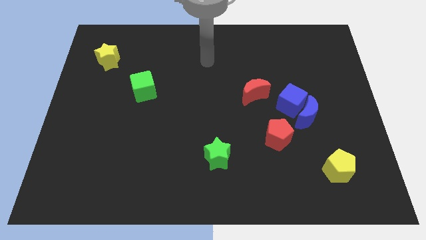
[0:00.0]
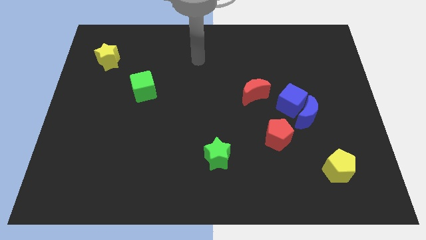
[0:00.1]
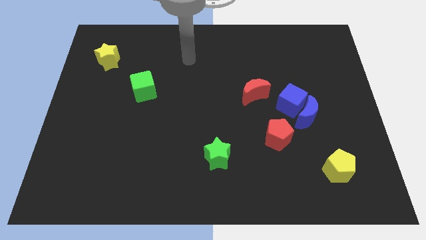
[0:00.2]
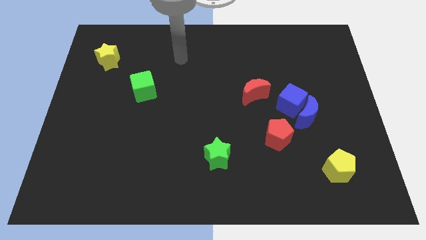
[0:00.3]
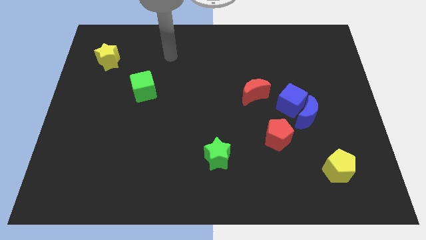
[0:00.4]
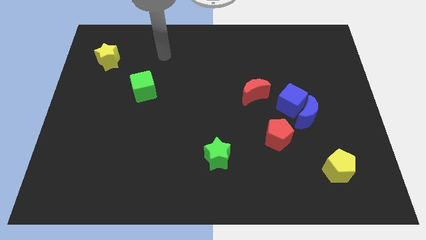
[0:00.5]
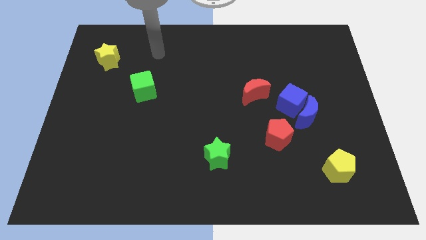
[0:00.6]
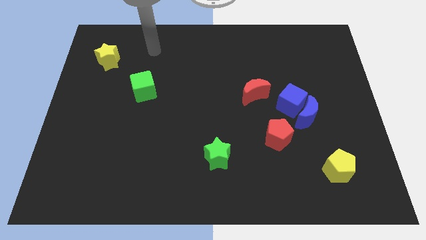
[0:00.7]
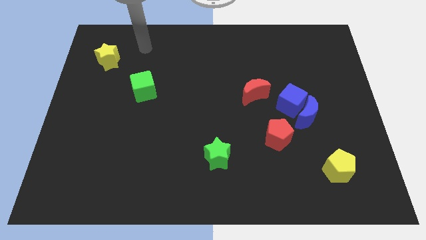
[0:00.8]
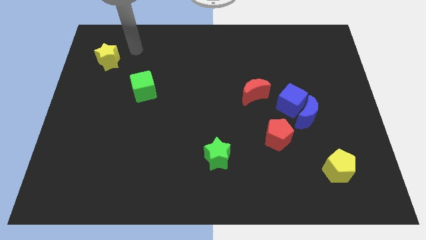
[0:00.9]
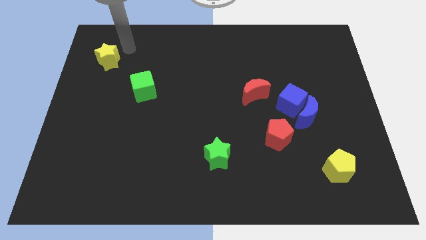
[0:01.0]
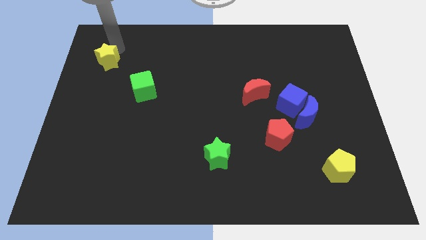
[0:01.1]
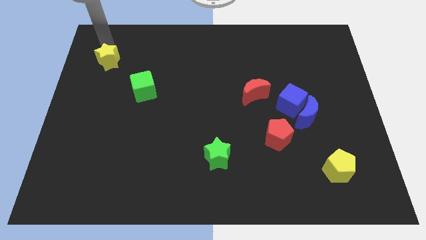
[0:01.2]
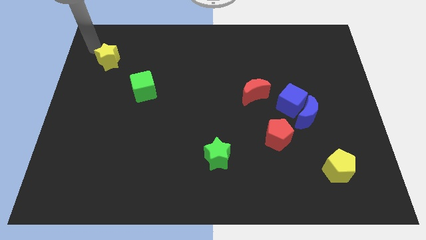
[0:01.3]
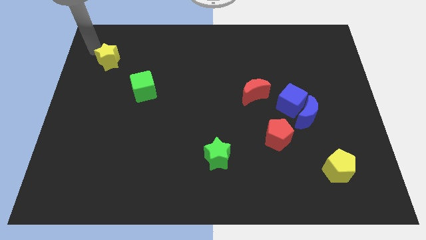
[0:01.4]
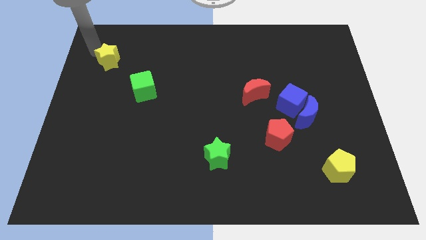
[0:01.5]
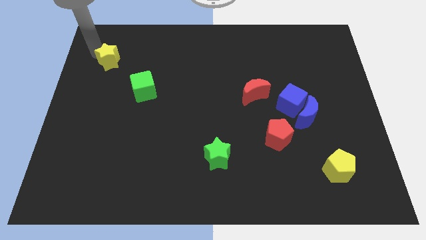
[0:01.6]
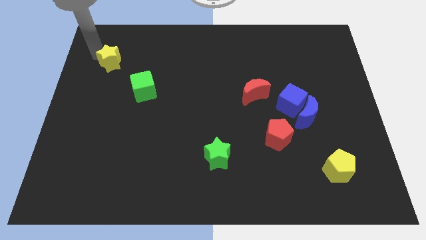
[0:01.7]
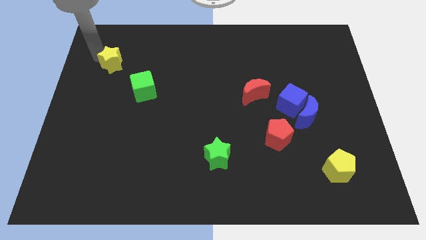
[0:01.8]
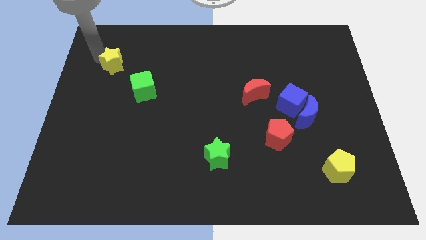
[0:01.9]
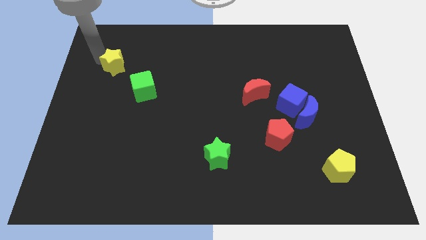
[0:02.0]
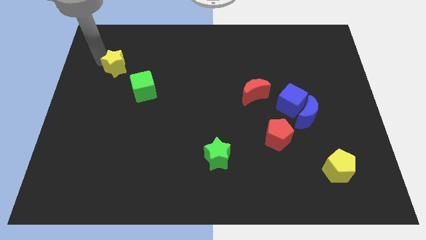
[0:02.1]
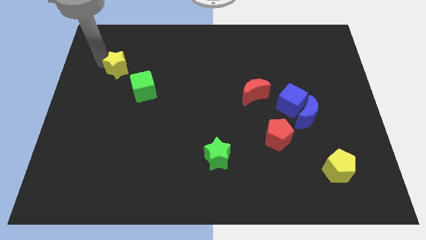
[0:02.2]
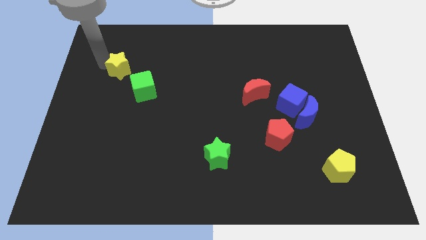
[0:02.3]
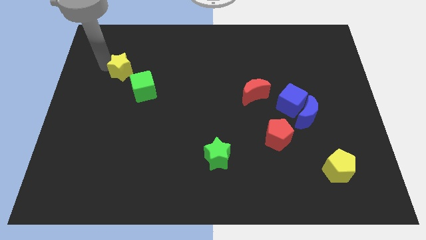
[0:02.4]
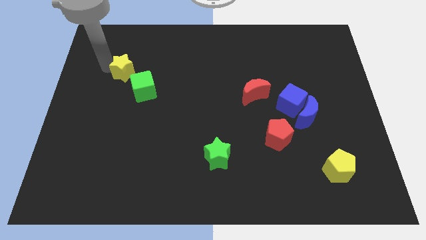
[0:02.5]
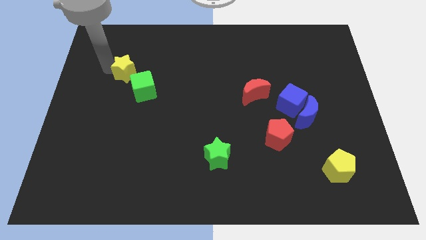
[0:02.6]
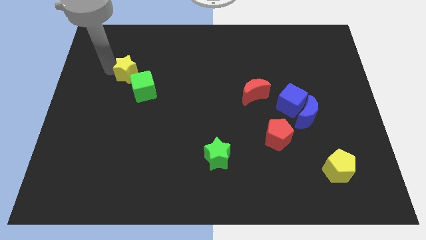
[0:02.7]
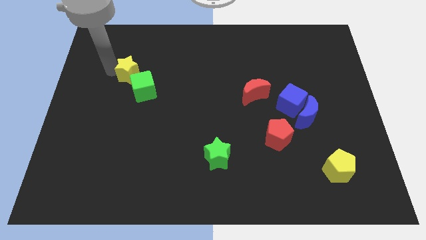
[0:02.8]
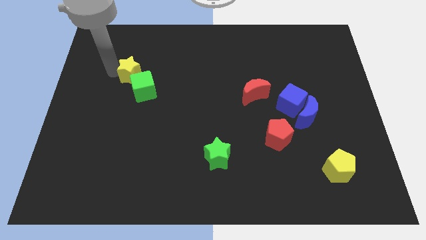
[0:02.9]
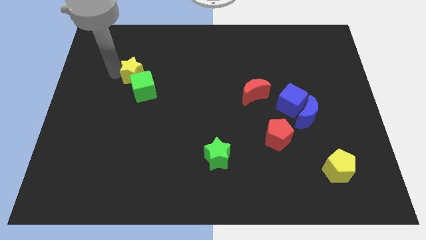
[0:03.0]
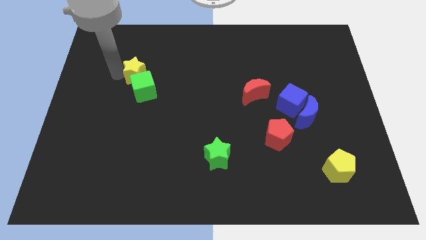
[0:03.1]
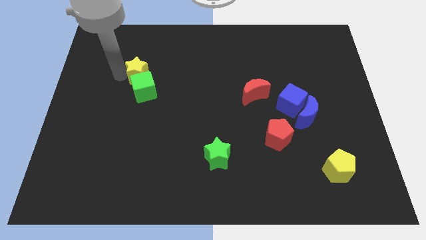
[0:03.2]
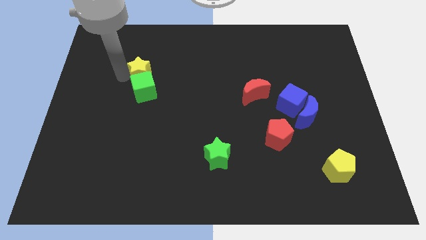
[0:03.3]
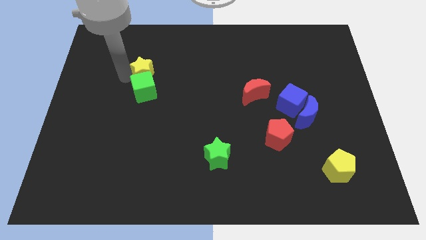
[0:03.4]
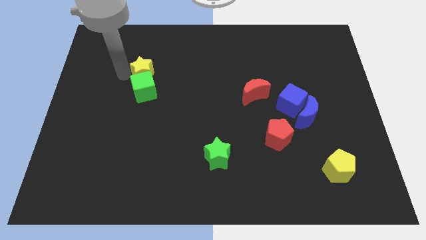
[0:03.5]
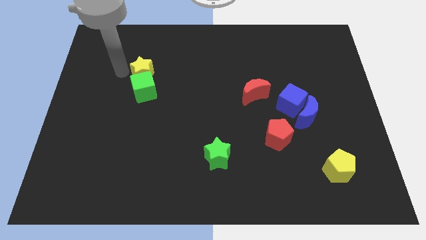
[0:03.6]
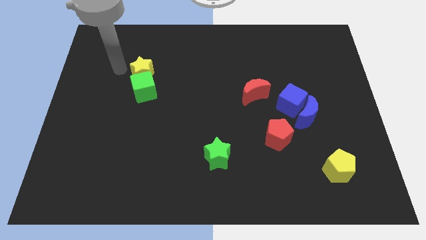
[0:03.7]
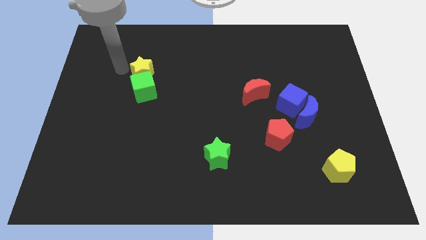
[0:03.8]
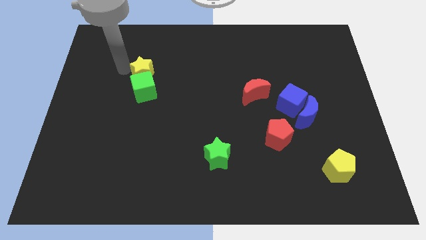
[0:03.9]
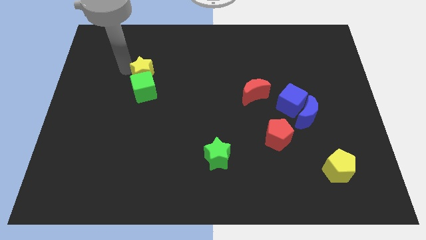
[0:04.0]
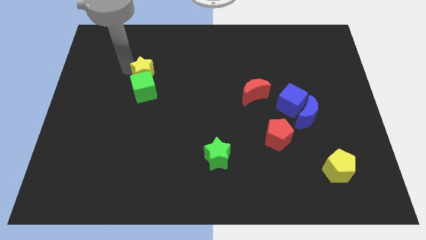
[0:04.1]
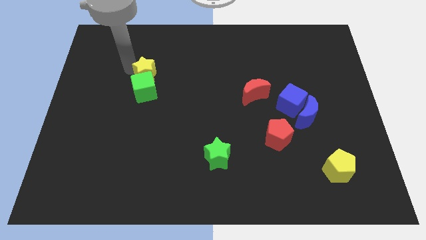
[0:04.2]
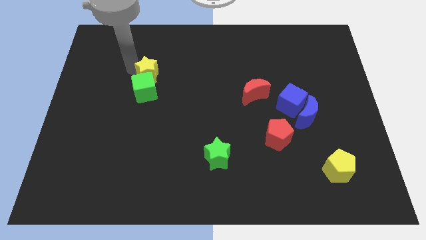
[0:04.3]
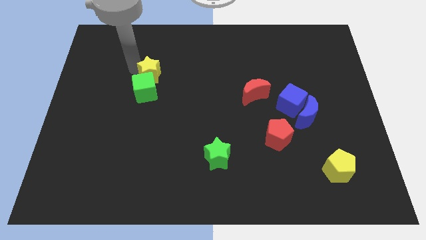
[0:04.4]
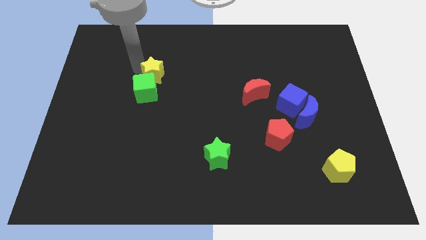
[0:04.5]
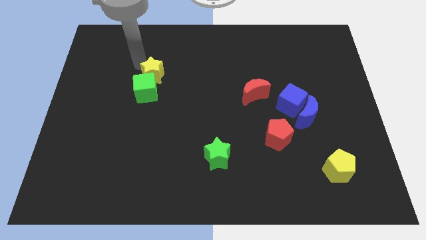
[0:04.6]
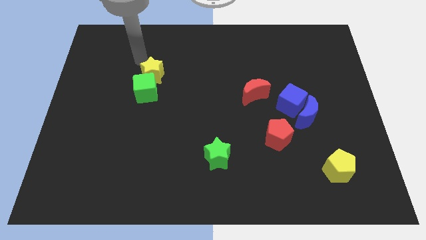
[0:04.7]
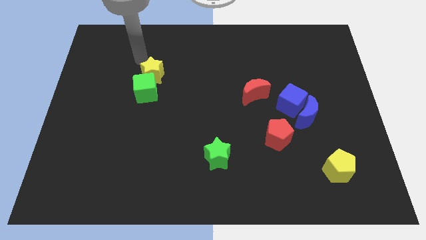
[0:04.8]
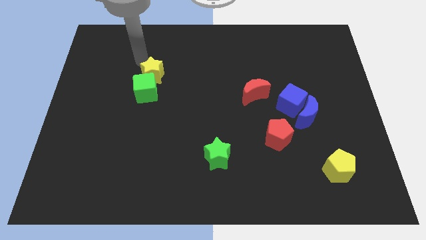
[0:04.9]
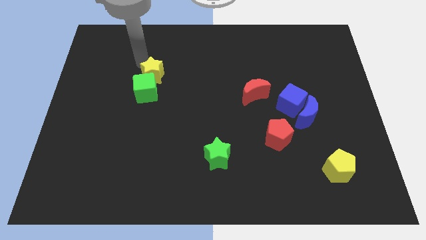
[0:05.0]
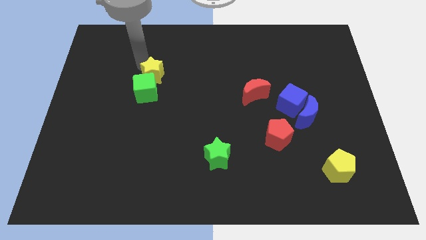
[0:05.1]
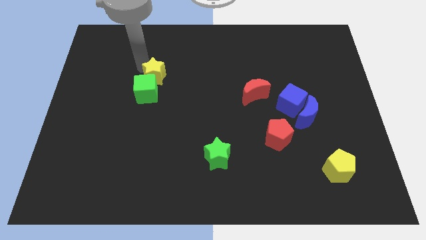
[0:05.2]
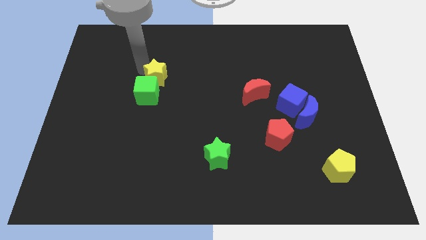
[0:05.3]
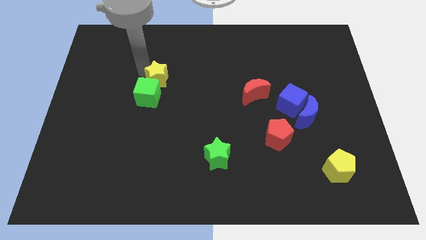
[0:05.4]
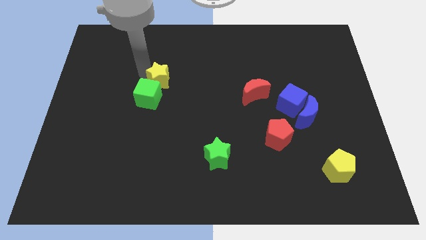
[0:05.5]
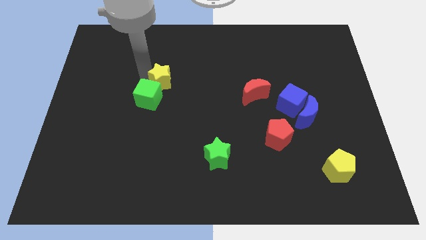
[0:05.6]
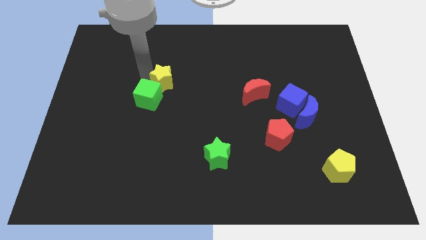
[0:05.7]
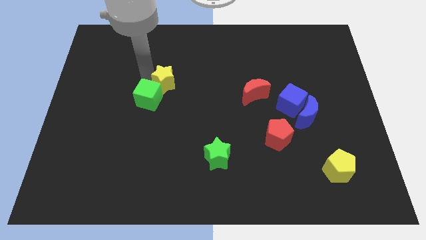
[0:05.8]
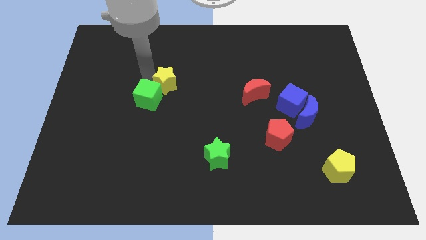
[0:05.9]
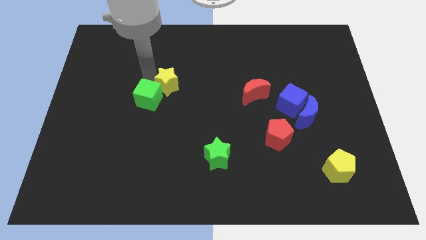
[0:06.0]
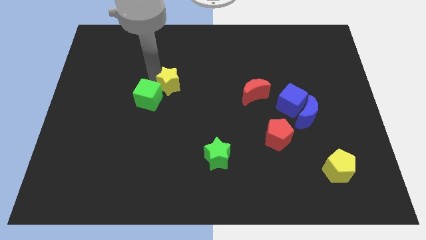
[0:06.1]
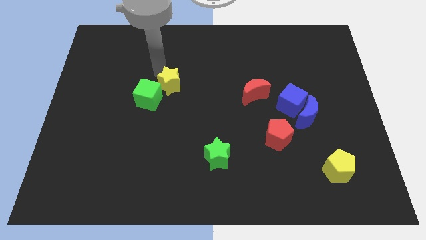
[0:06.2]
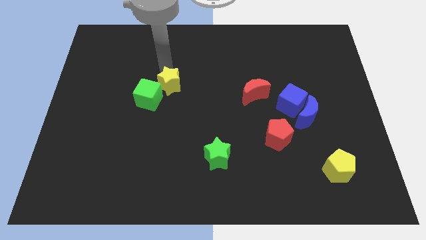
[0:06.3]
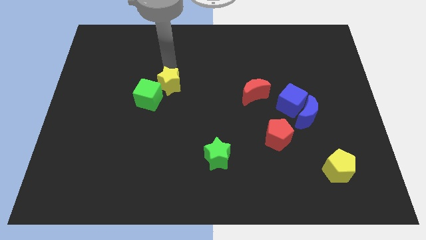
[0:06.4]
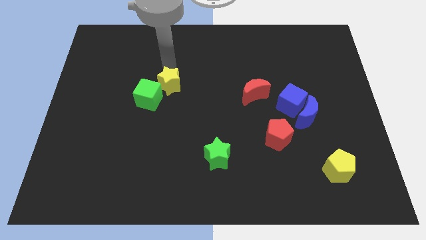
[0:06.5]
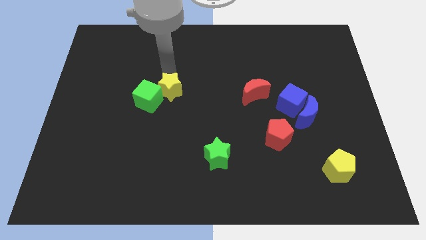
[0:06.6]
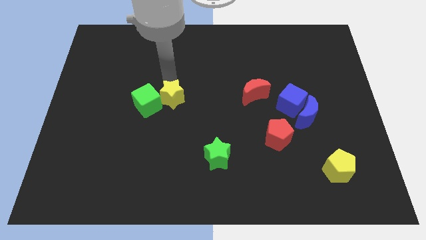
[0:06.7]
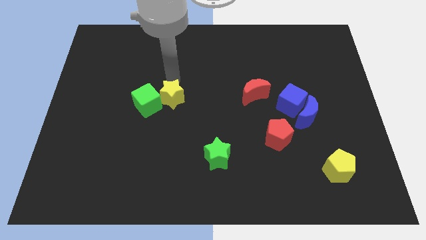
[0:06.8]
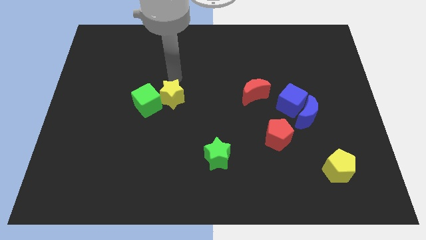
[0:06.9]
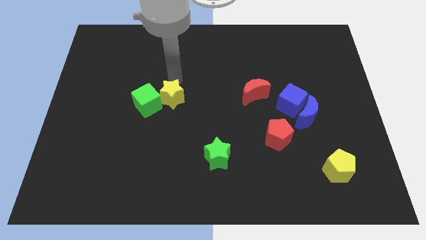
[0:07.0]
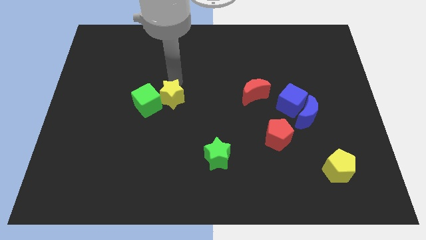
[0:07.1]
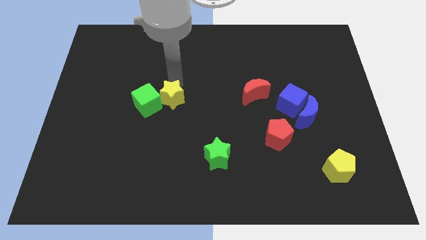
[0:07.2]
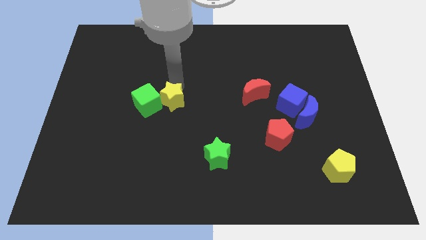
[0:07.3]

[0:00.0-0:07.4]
move the yellow star to the bottom right of the green cube
